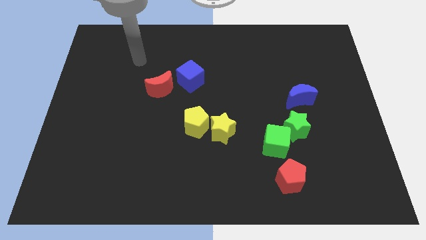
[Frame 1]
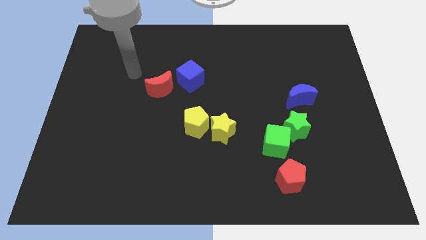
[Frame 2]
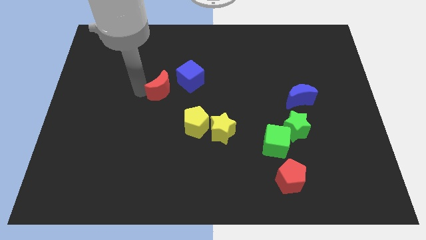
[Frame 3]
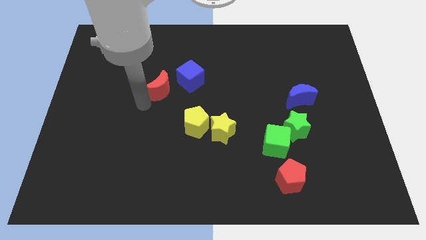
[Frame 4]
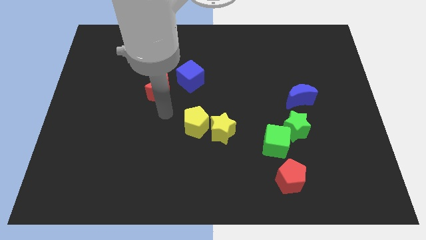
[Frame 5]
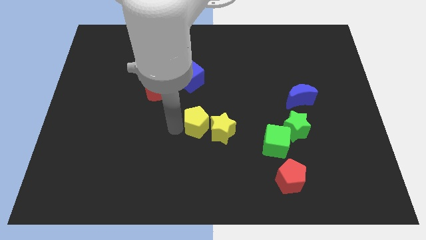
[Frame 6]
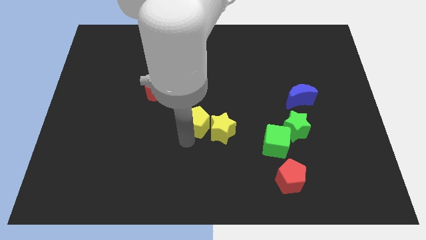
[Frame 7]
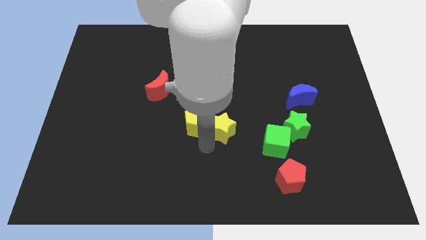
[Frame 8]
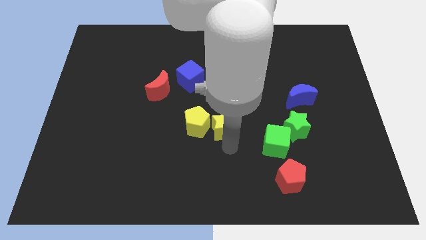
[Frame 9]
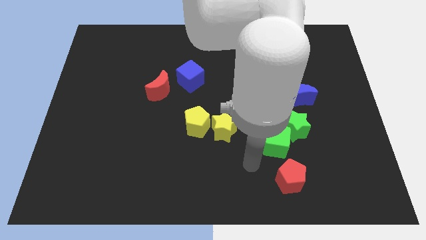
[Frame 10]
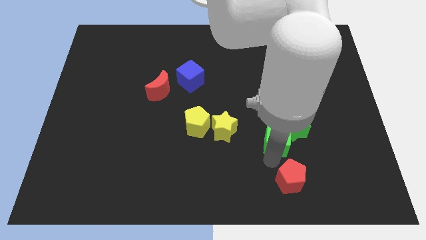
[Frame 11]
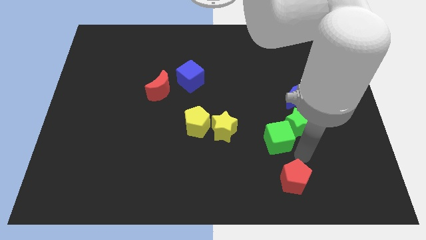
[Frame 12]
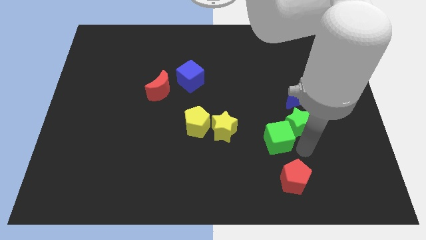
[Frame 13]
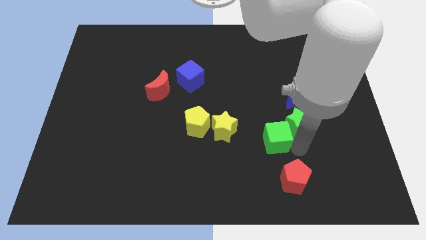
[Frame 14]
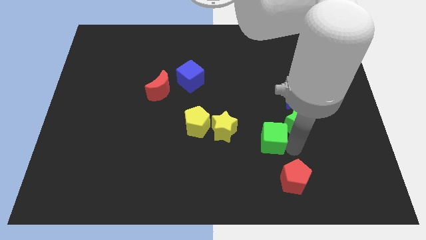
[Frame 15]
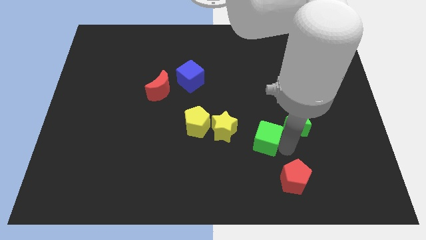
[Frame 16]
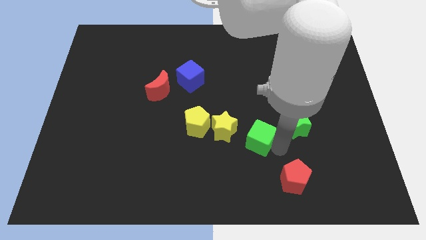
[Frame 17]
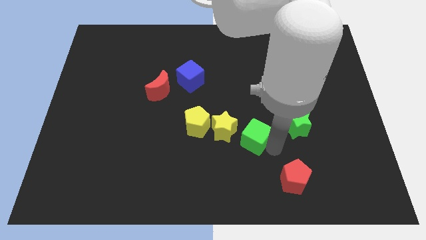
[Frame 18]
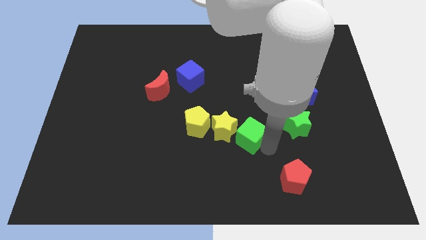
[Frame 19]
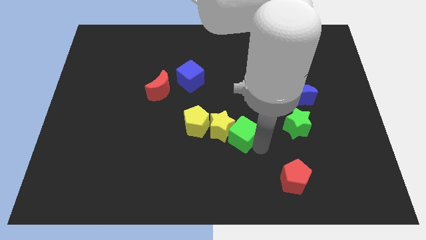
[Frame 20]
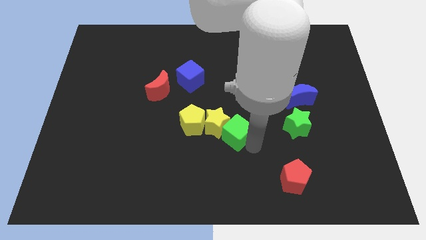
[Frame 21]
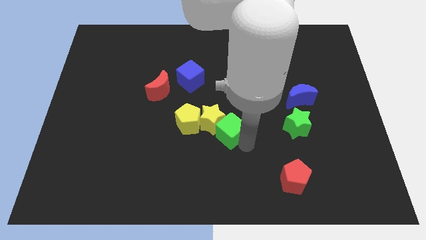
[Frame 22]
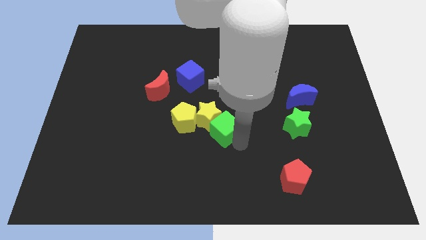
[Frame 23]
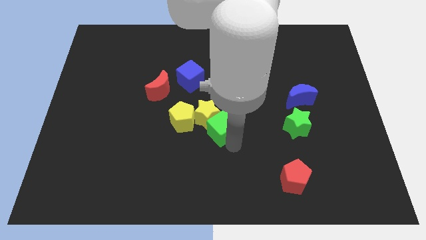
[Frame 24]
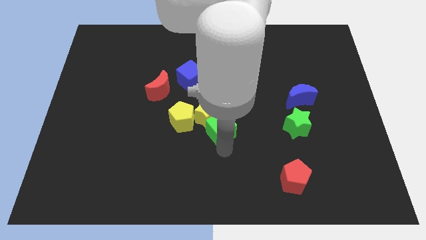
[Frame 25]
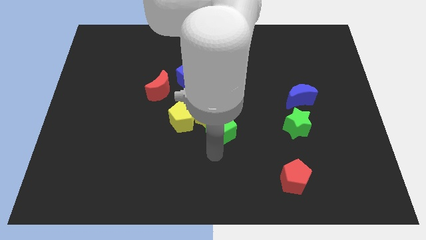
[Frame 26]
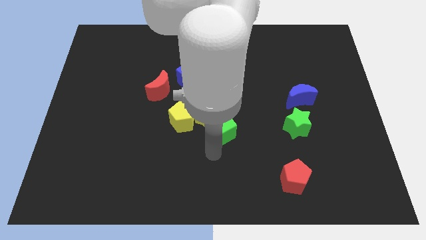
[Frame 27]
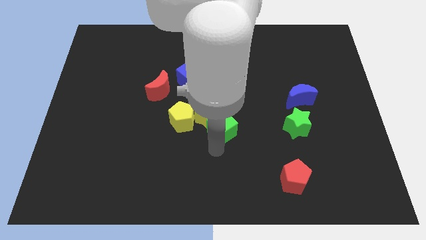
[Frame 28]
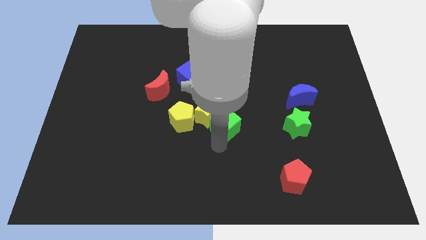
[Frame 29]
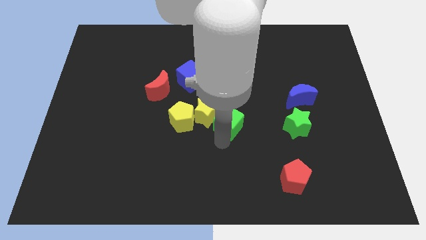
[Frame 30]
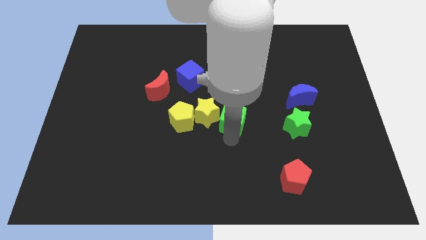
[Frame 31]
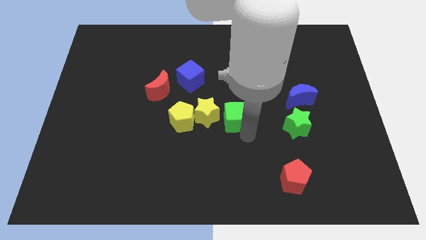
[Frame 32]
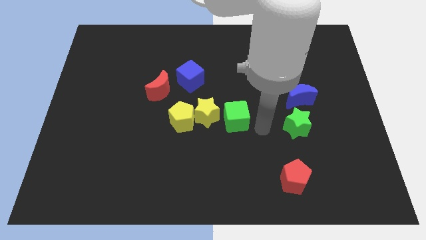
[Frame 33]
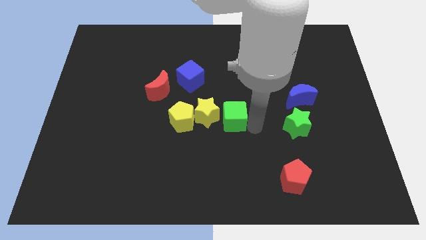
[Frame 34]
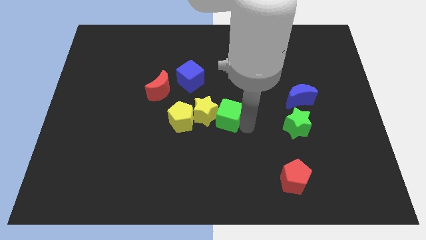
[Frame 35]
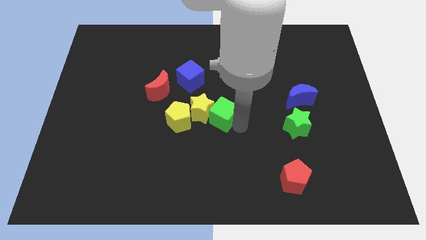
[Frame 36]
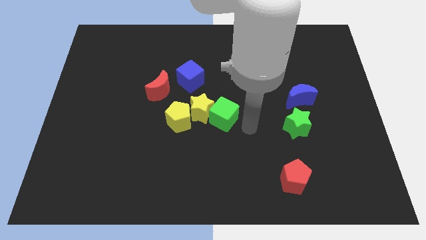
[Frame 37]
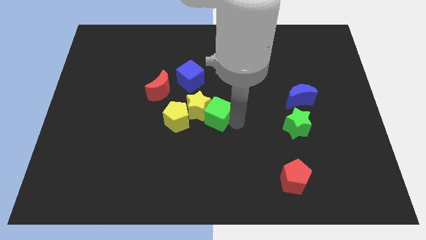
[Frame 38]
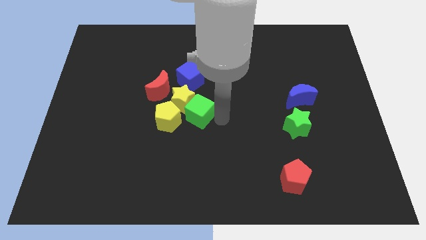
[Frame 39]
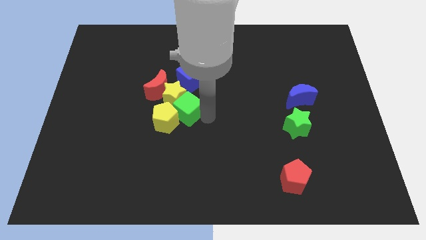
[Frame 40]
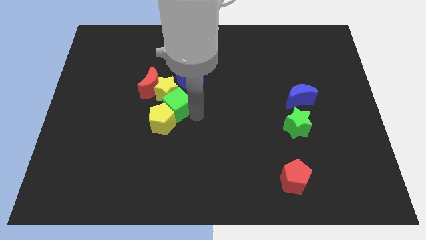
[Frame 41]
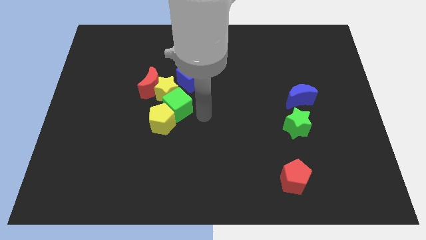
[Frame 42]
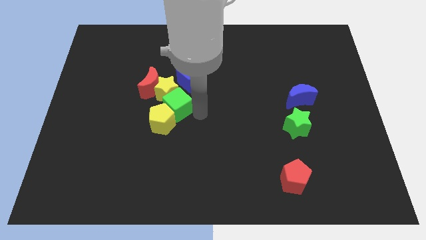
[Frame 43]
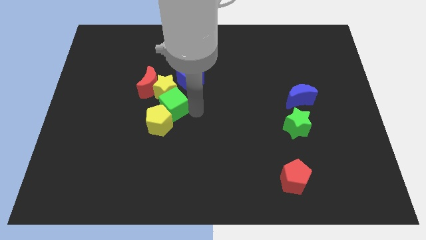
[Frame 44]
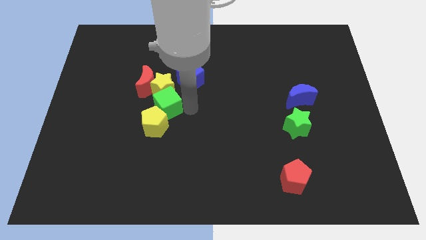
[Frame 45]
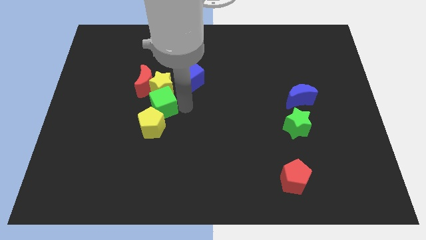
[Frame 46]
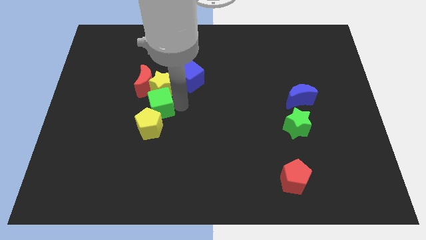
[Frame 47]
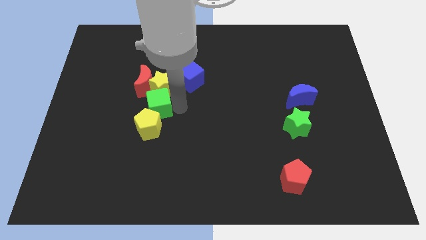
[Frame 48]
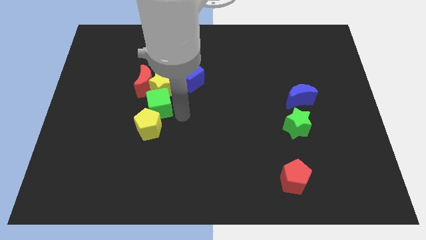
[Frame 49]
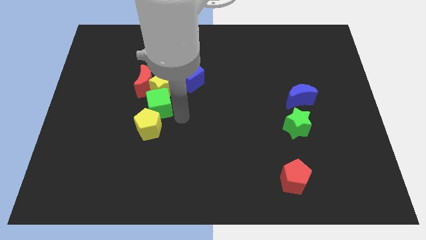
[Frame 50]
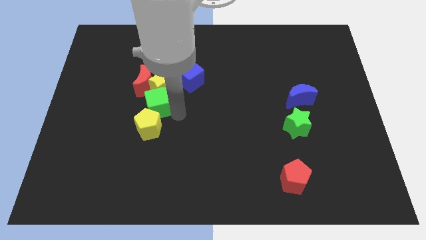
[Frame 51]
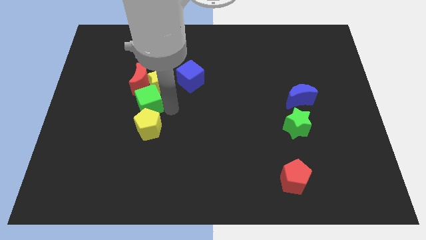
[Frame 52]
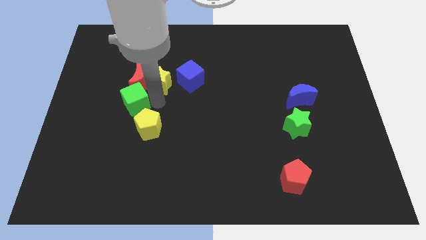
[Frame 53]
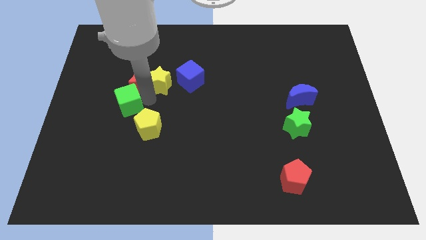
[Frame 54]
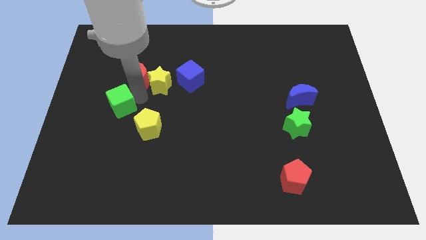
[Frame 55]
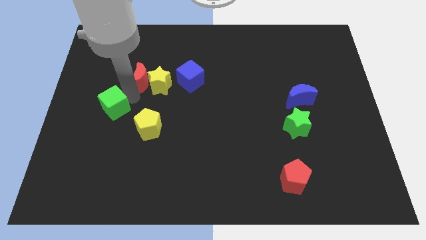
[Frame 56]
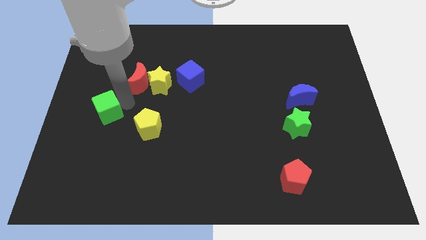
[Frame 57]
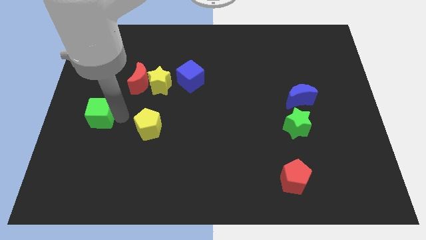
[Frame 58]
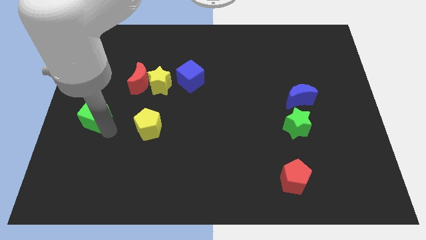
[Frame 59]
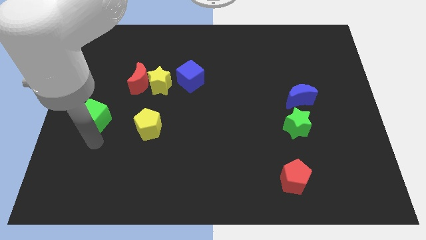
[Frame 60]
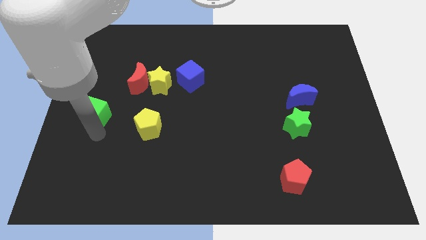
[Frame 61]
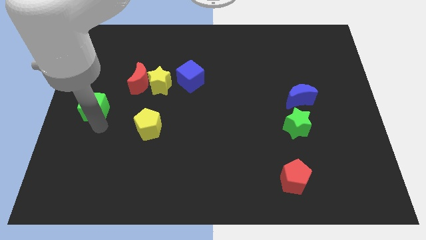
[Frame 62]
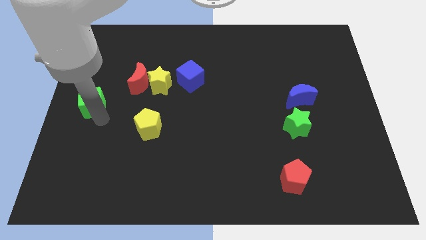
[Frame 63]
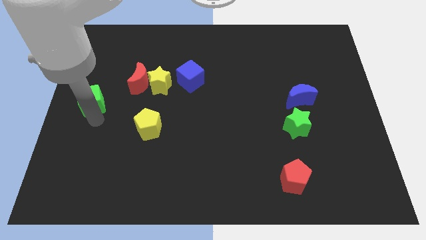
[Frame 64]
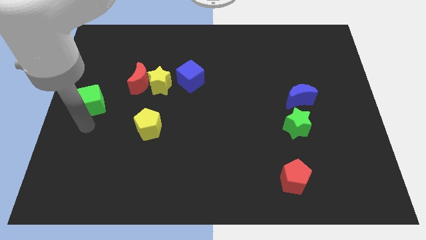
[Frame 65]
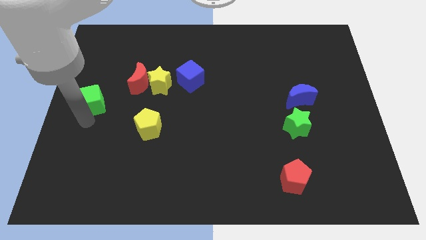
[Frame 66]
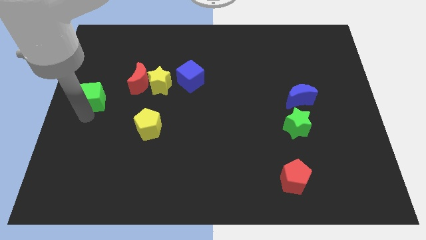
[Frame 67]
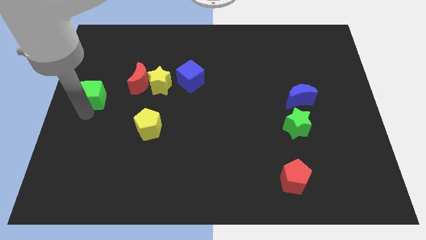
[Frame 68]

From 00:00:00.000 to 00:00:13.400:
slide the green cube just left of the red moon
